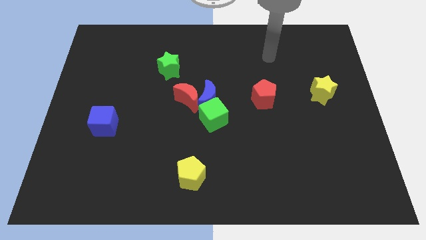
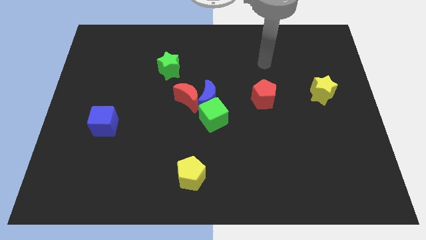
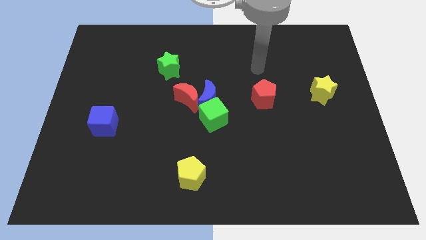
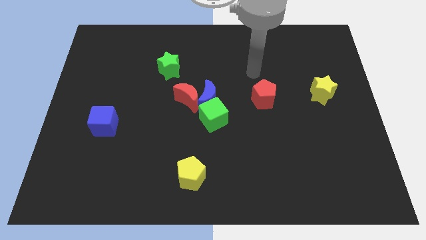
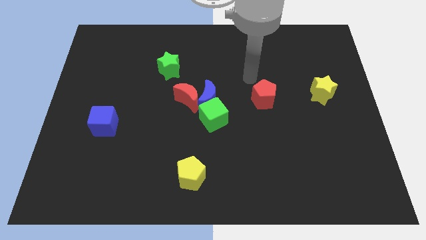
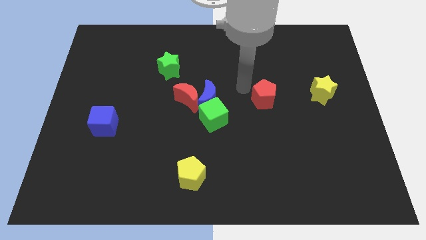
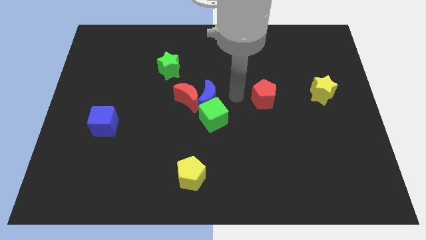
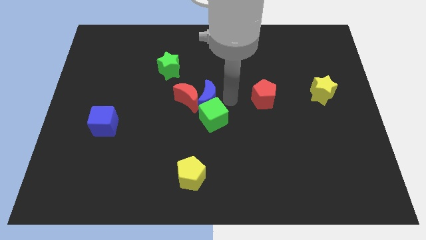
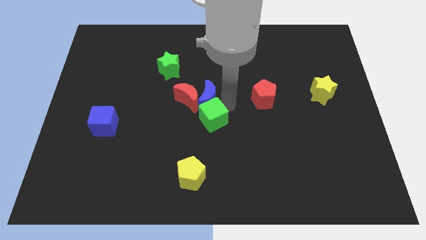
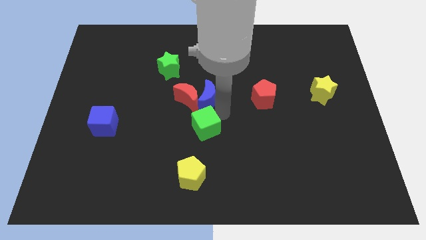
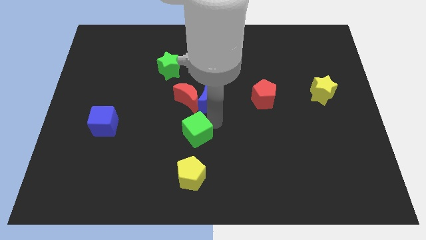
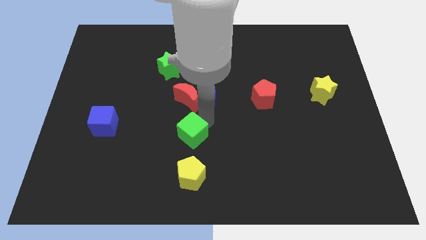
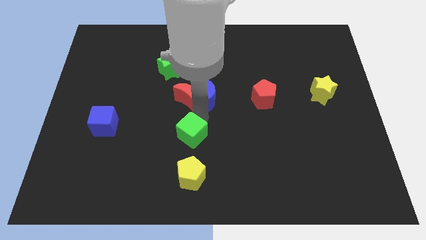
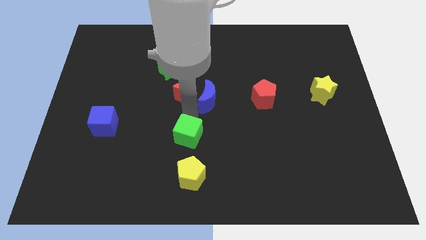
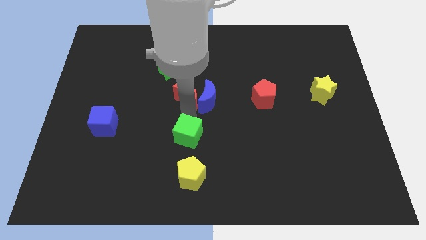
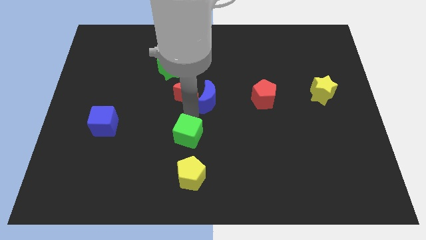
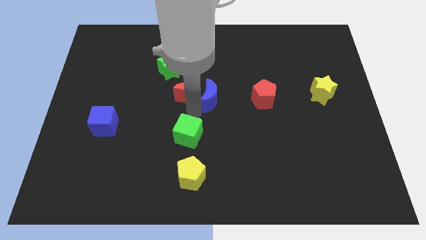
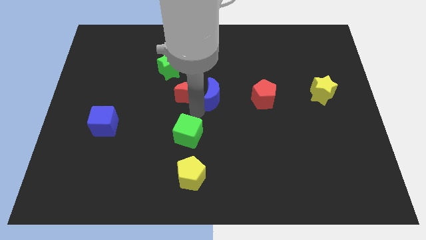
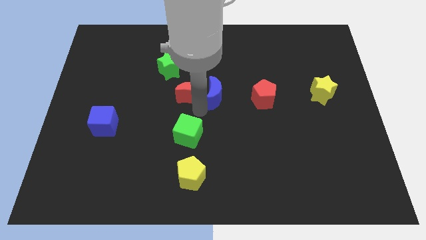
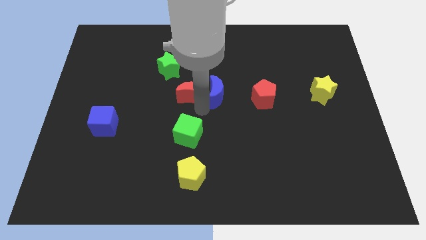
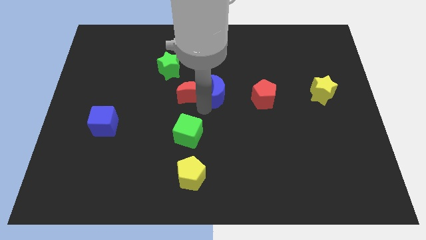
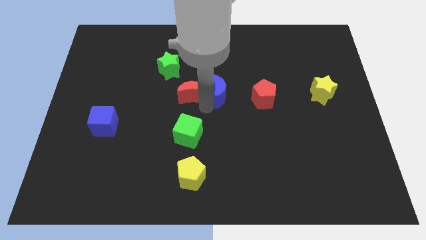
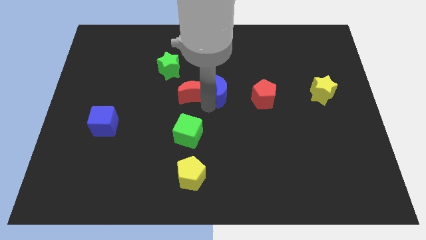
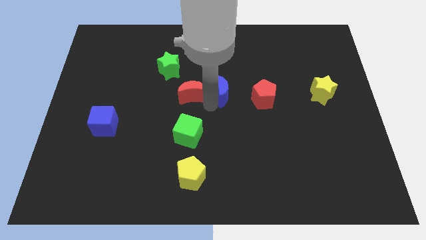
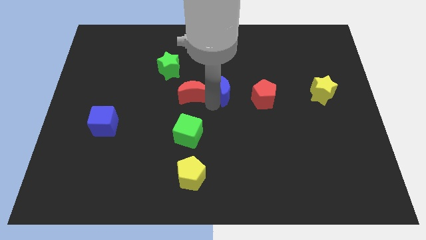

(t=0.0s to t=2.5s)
move the blue moon away from the red moon and green cube

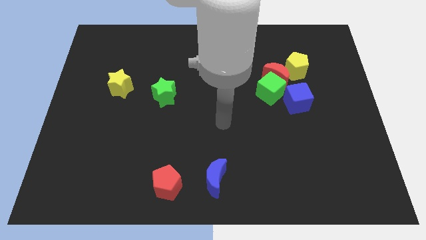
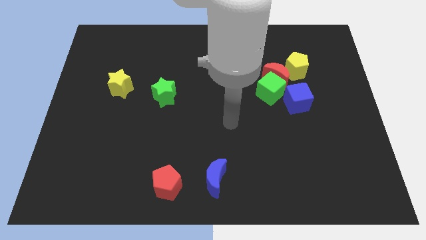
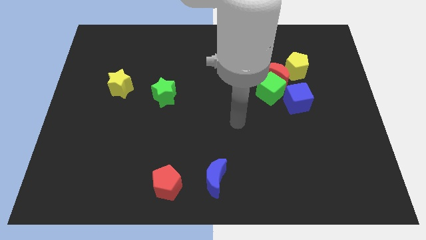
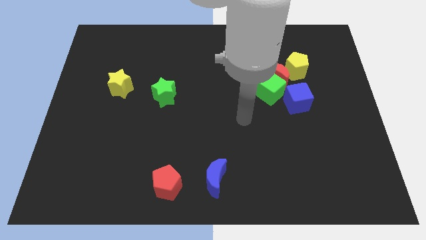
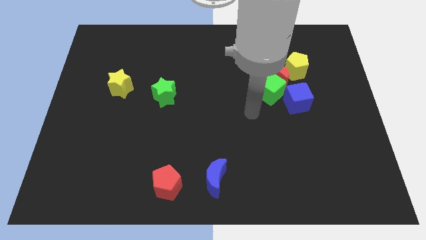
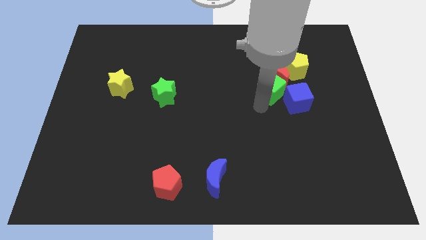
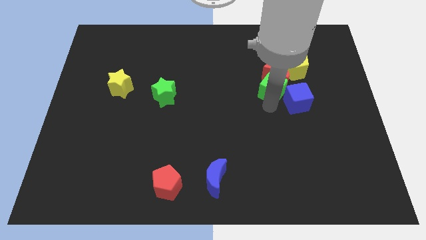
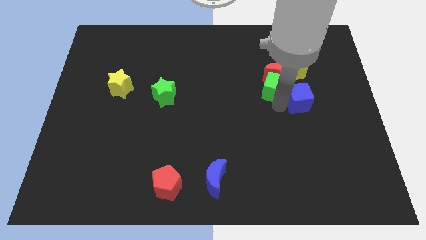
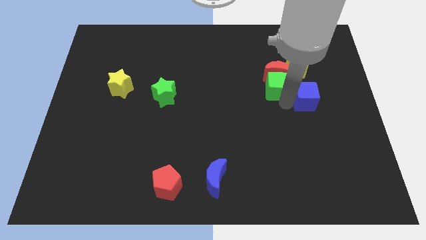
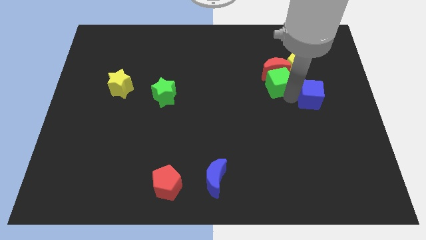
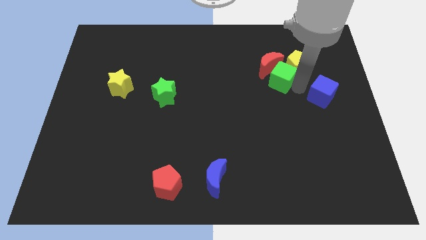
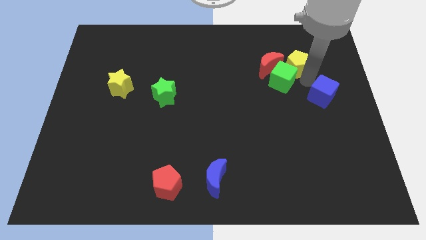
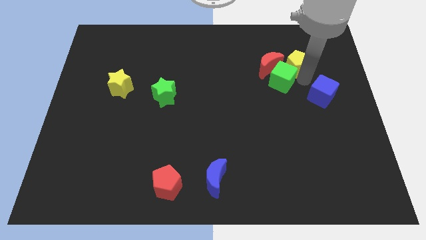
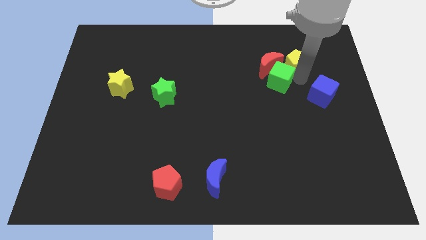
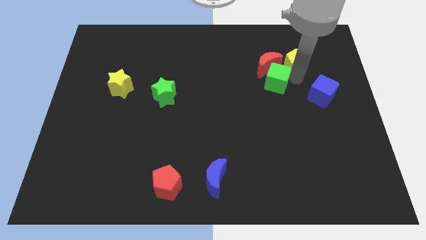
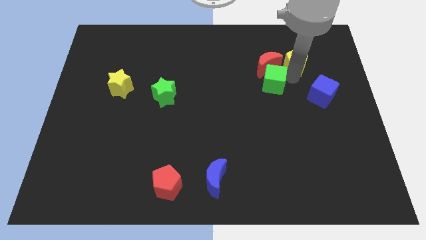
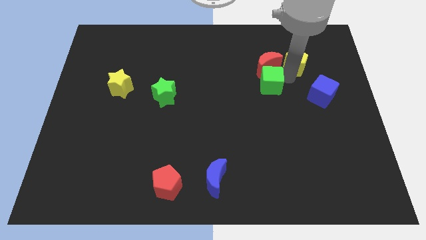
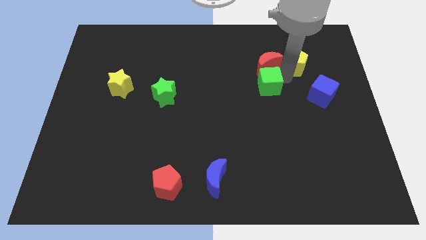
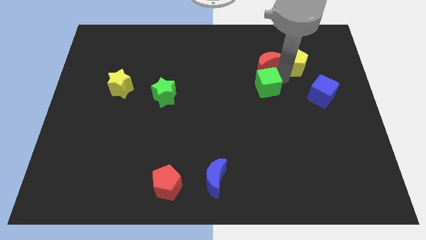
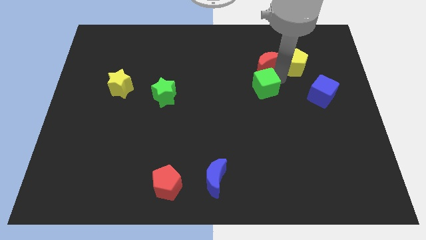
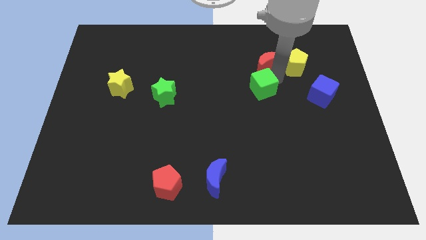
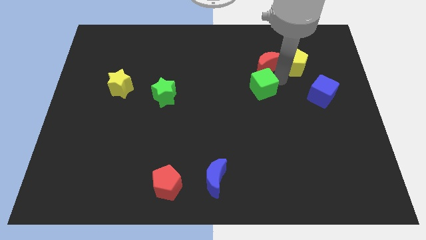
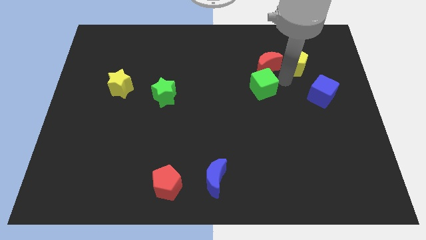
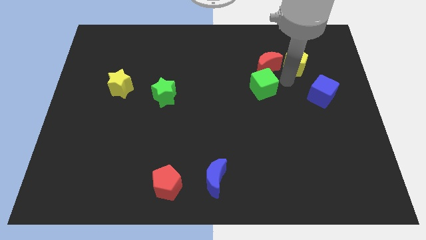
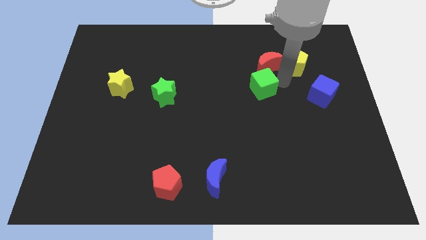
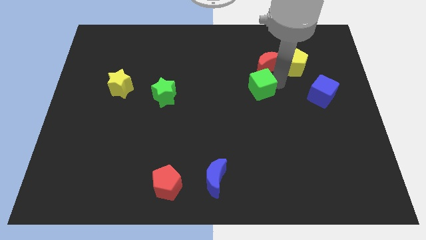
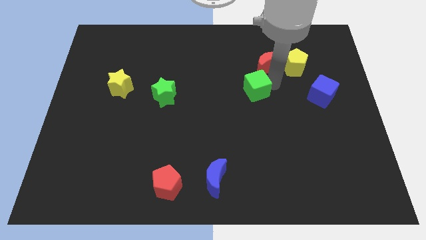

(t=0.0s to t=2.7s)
move the green cube away from the red moon and blue cube

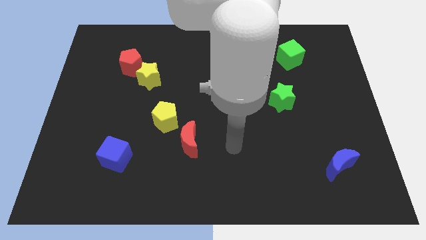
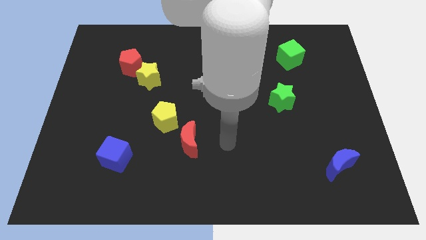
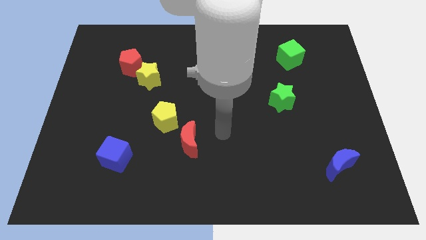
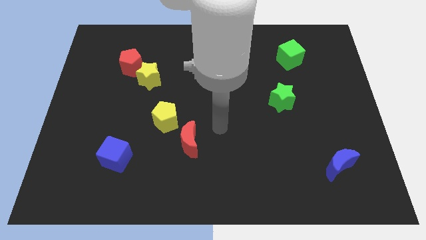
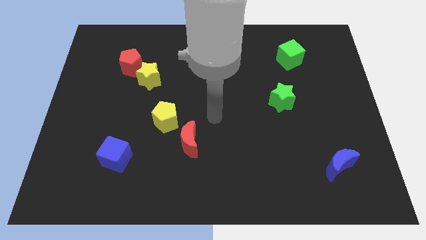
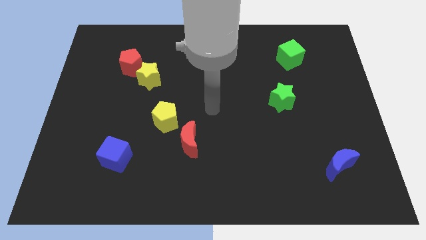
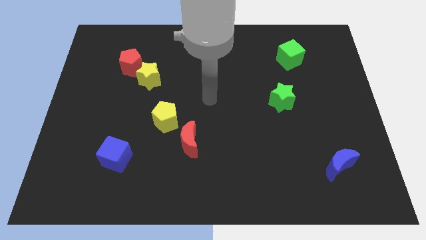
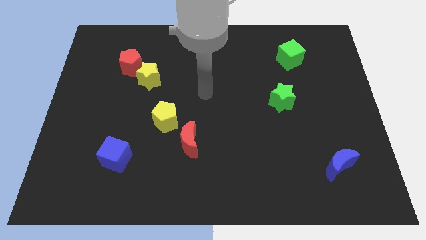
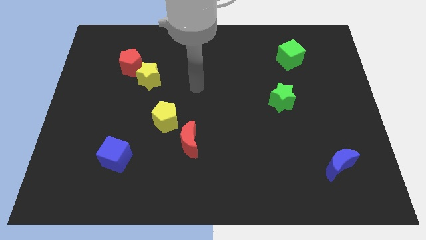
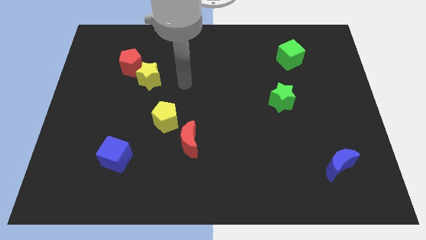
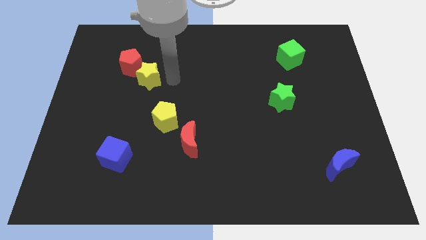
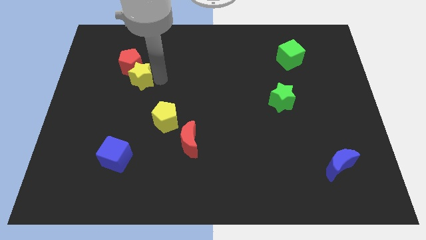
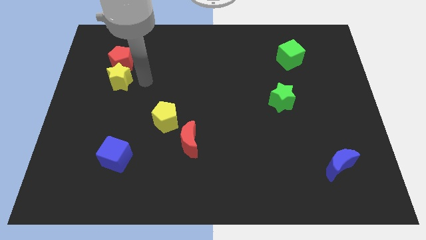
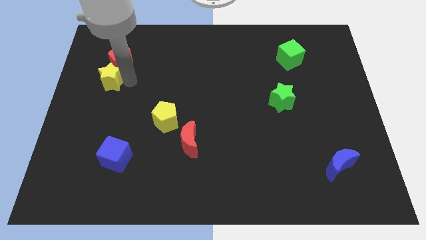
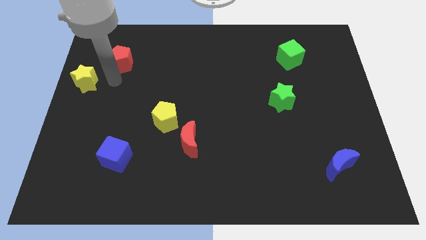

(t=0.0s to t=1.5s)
separate the red pentagon from the yellow star

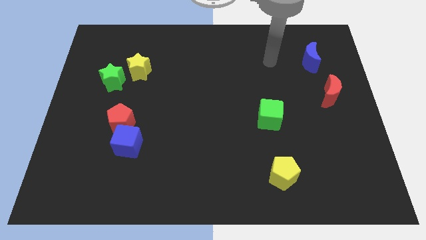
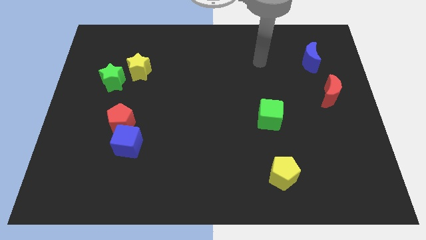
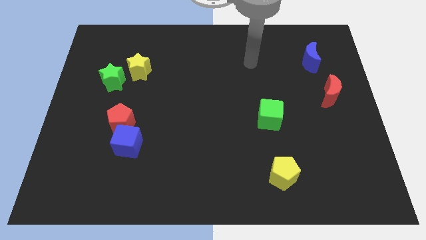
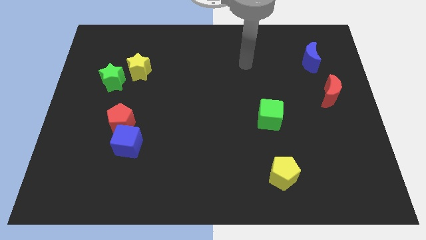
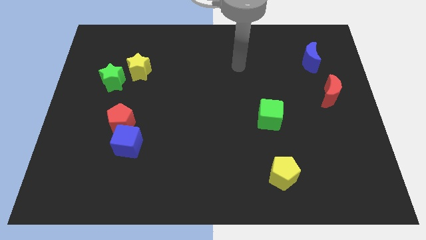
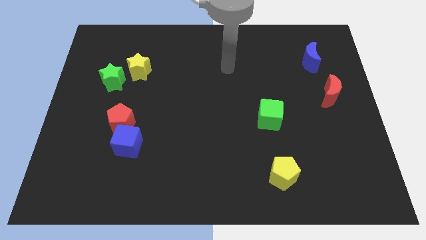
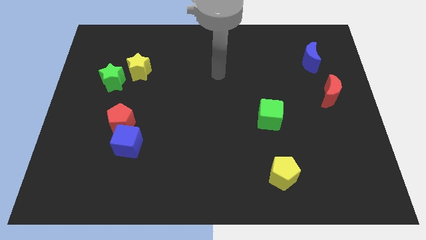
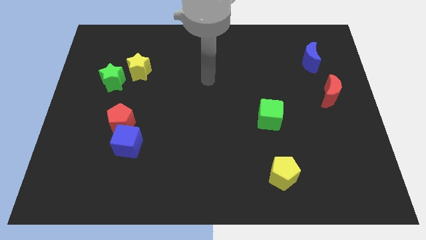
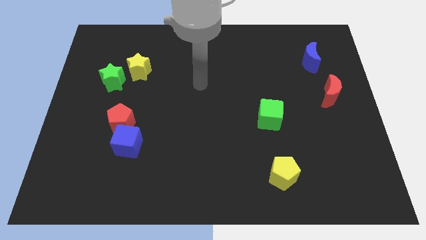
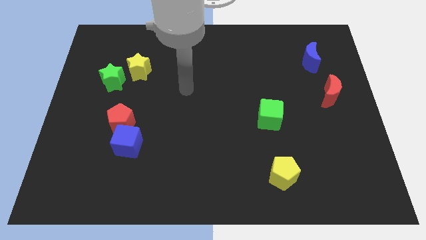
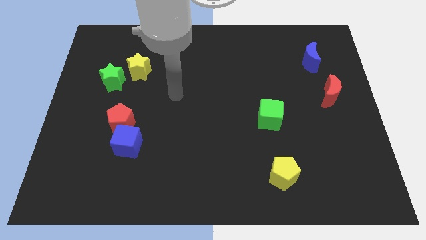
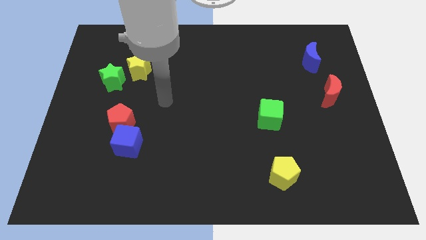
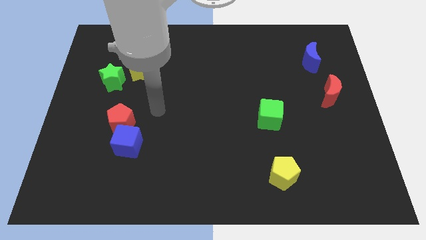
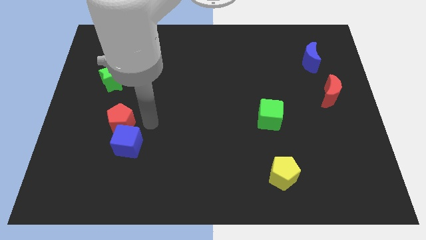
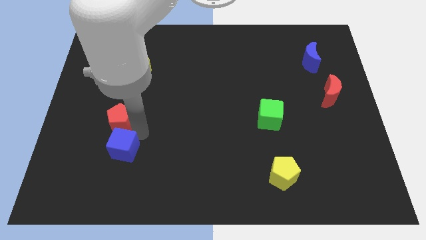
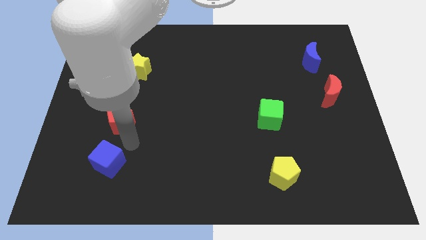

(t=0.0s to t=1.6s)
separate the red pentagon from the blue cube

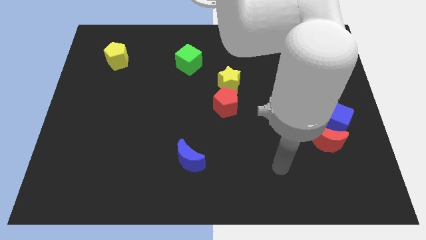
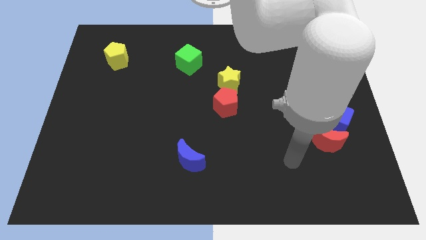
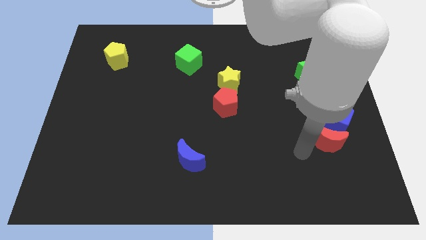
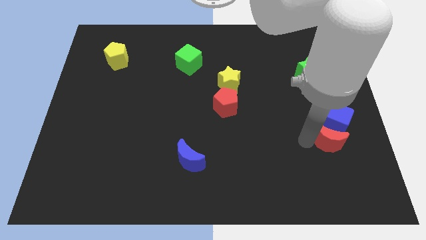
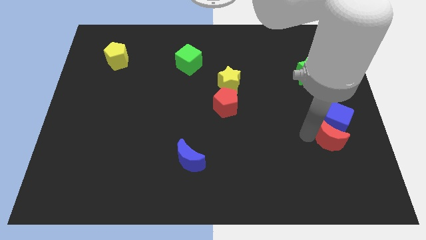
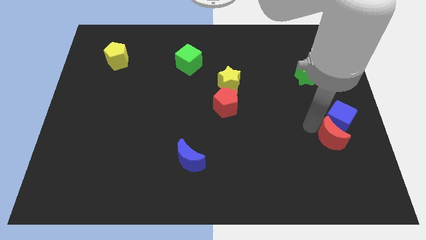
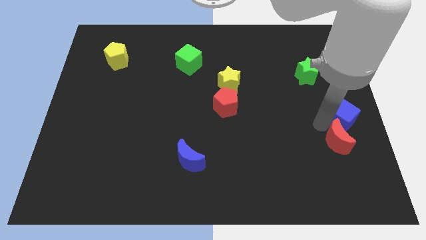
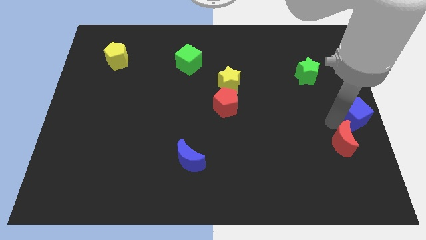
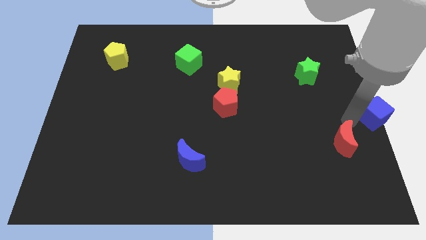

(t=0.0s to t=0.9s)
pull the red moon apart from the blue cube
